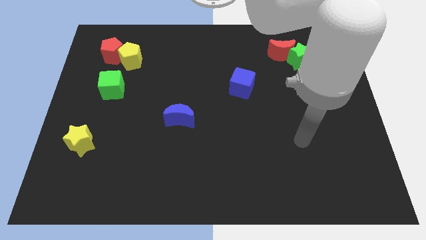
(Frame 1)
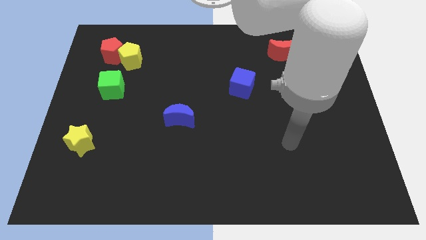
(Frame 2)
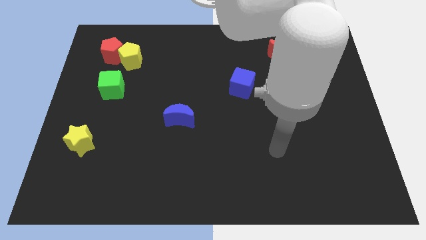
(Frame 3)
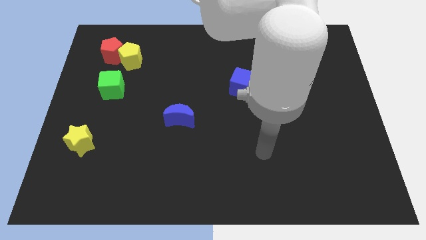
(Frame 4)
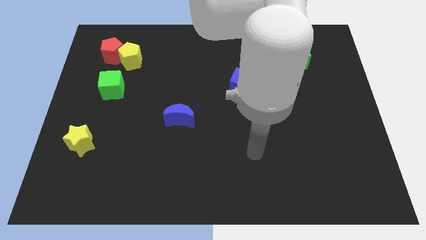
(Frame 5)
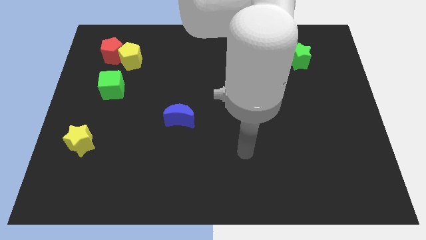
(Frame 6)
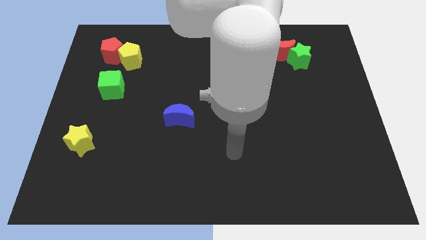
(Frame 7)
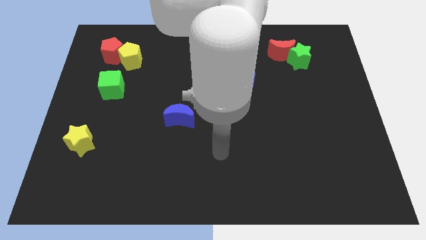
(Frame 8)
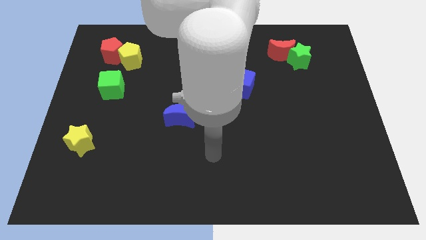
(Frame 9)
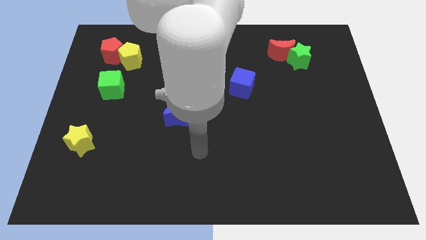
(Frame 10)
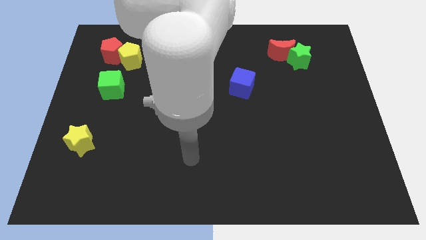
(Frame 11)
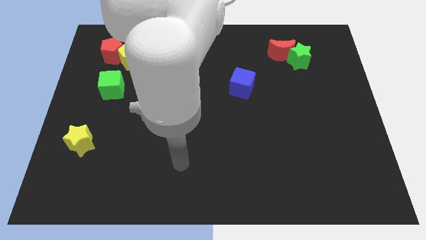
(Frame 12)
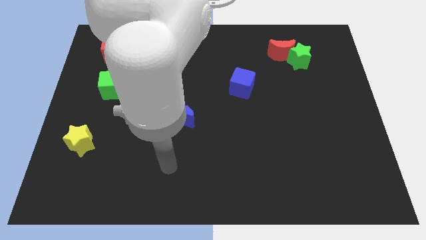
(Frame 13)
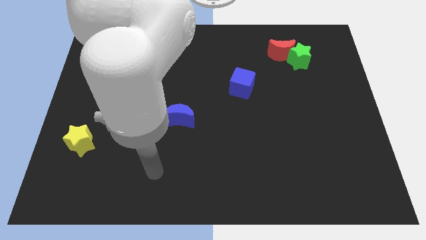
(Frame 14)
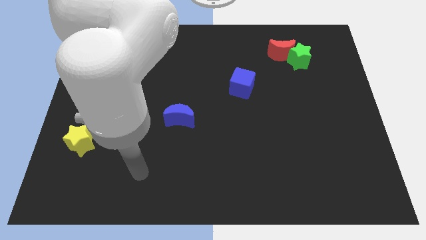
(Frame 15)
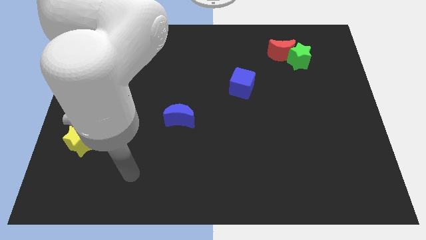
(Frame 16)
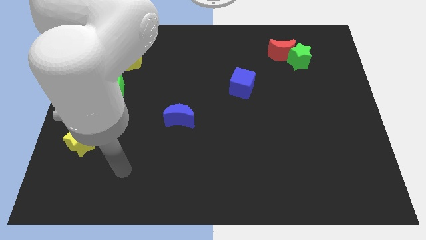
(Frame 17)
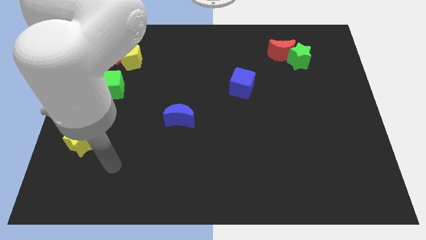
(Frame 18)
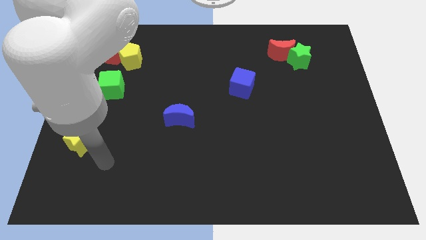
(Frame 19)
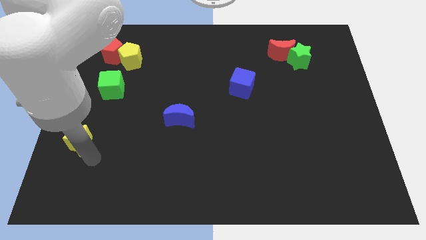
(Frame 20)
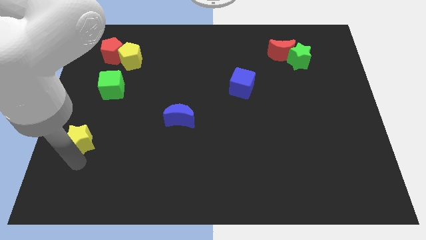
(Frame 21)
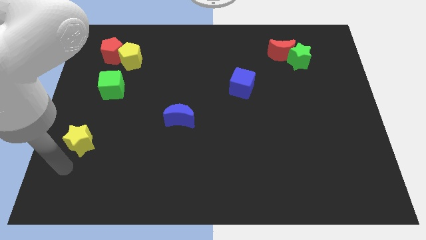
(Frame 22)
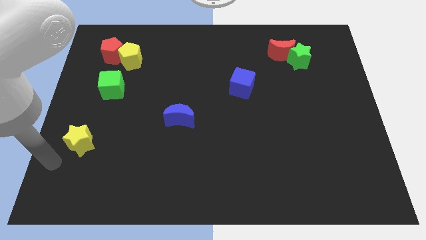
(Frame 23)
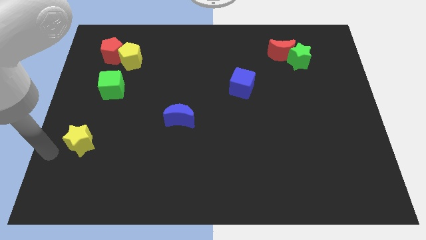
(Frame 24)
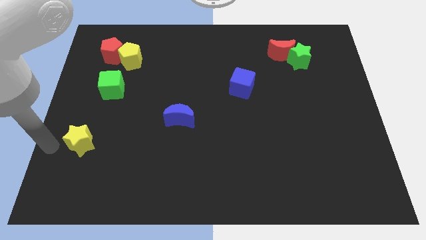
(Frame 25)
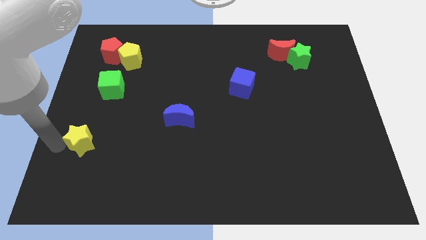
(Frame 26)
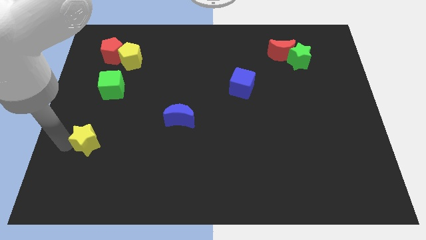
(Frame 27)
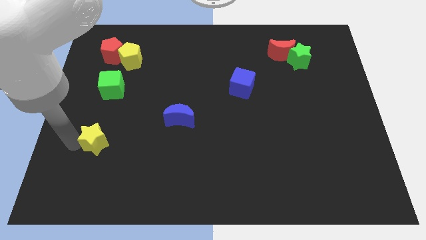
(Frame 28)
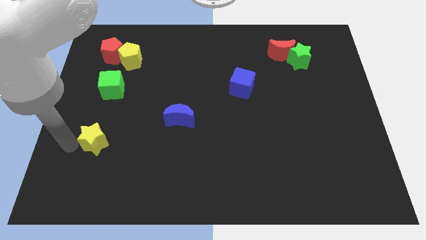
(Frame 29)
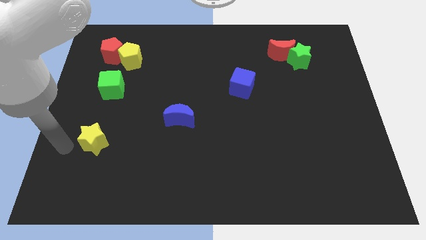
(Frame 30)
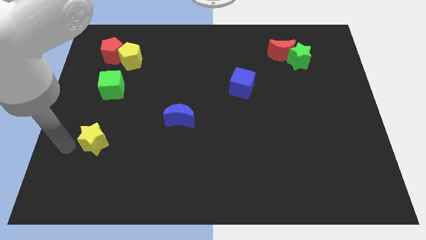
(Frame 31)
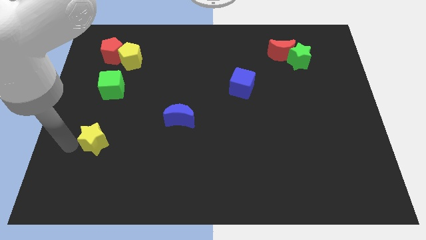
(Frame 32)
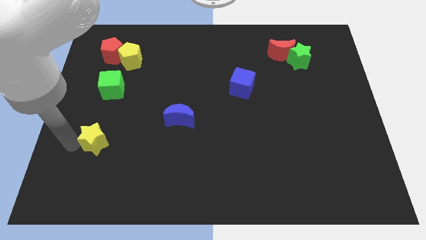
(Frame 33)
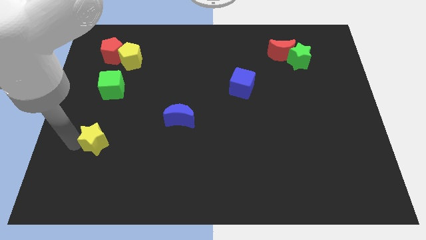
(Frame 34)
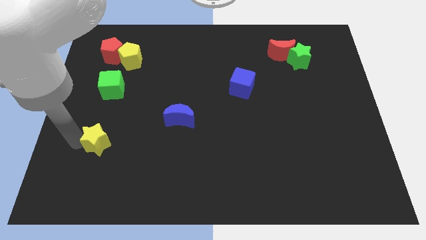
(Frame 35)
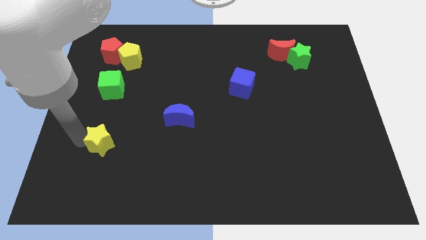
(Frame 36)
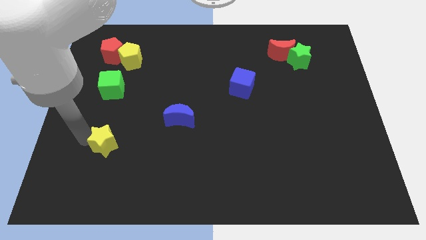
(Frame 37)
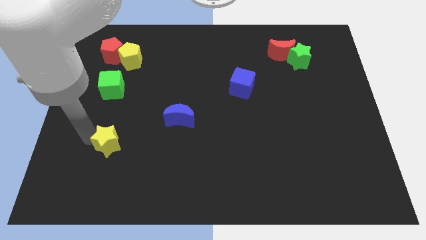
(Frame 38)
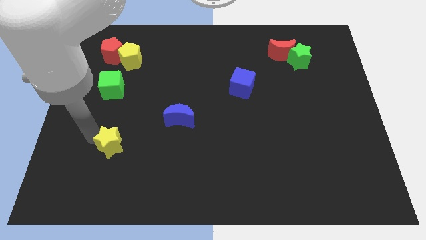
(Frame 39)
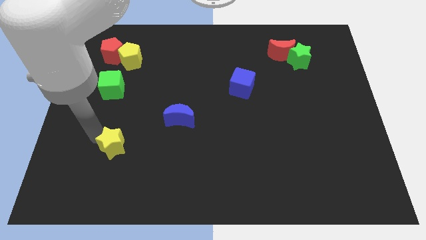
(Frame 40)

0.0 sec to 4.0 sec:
slightly slide the yellow star to the right

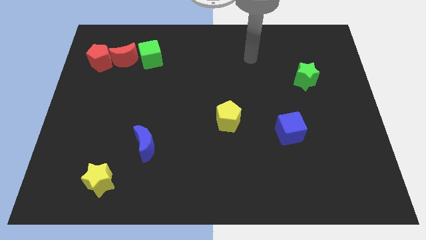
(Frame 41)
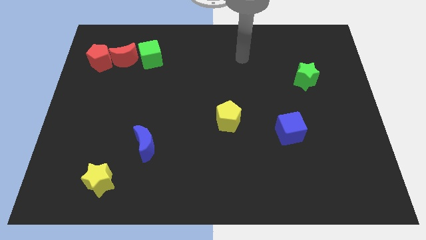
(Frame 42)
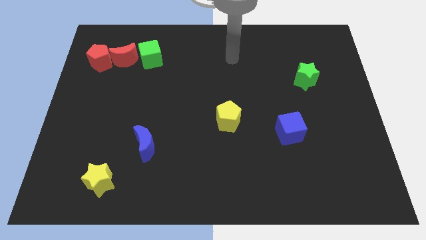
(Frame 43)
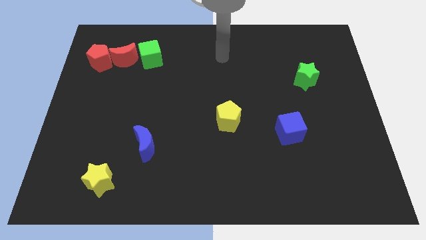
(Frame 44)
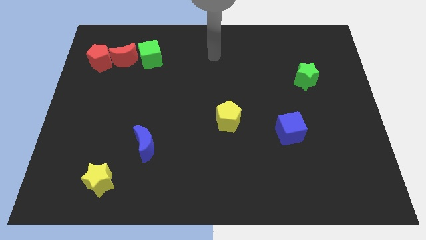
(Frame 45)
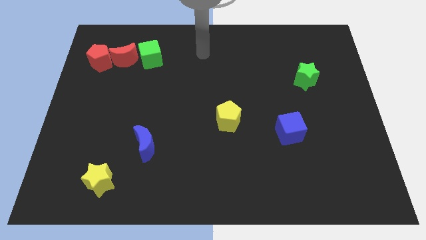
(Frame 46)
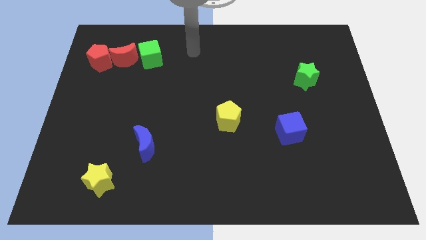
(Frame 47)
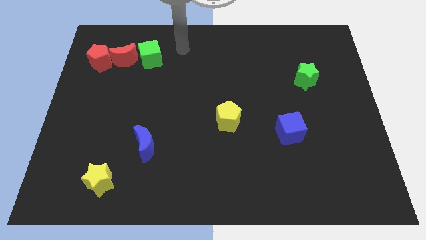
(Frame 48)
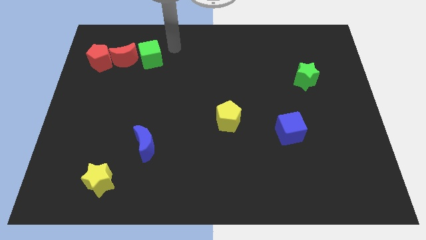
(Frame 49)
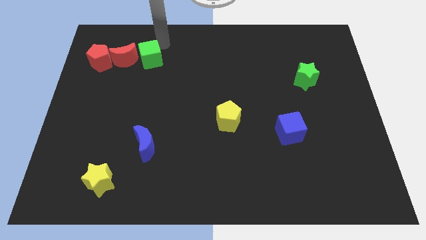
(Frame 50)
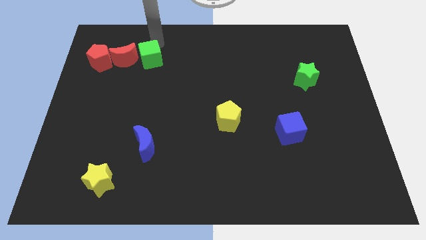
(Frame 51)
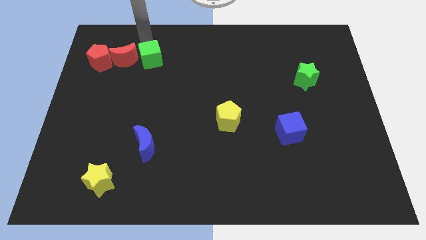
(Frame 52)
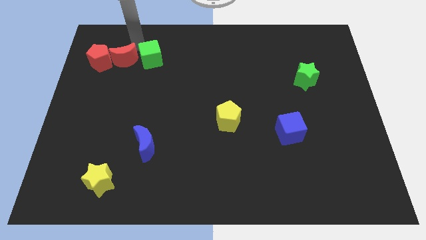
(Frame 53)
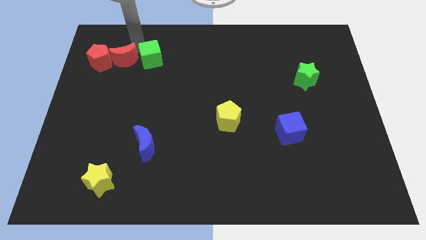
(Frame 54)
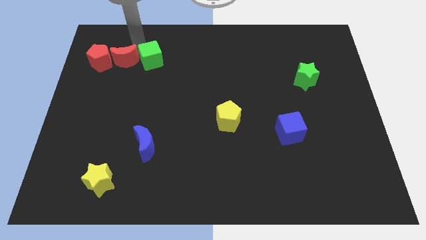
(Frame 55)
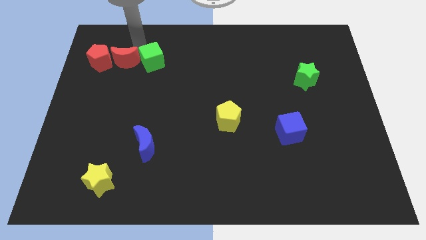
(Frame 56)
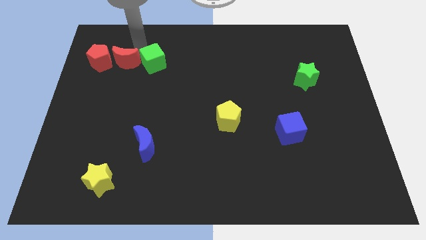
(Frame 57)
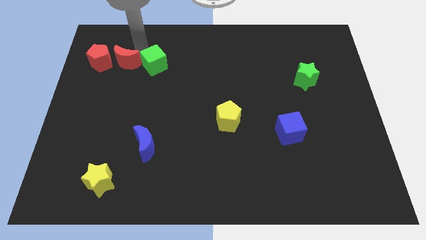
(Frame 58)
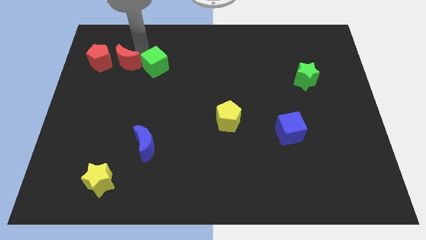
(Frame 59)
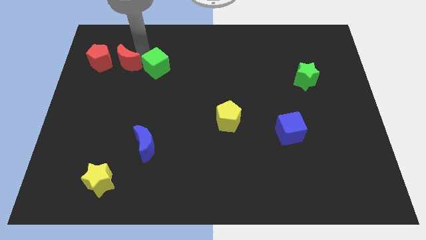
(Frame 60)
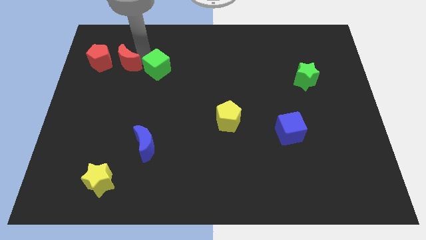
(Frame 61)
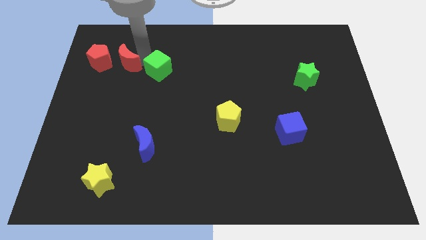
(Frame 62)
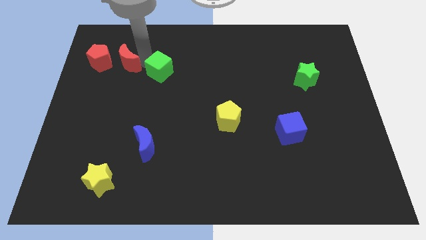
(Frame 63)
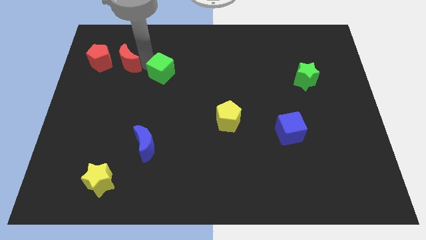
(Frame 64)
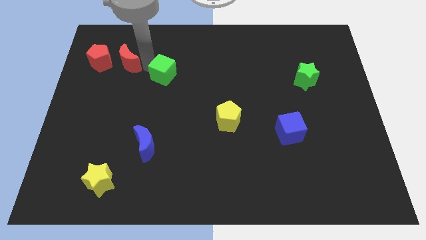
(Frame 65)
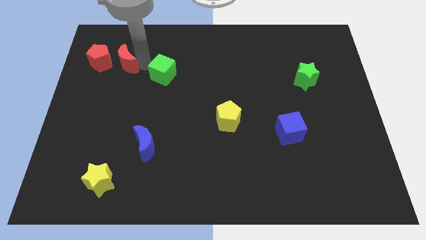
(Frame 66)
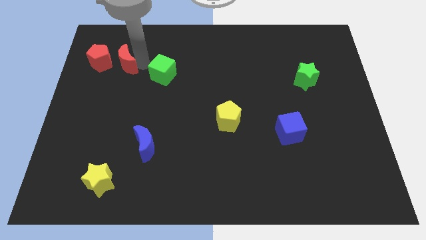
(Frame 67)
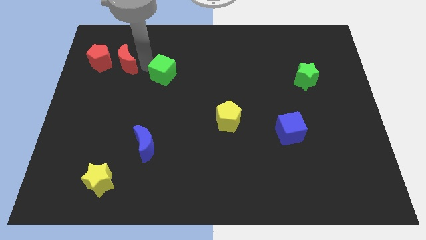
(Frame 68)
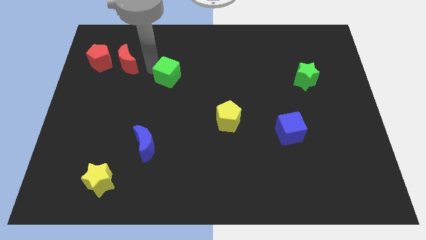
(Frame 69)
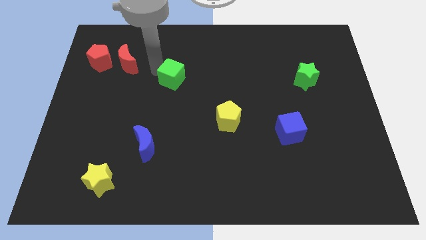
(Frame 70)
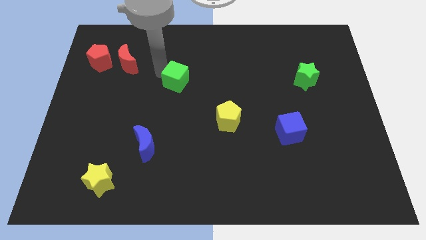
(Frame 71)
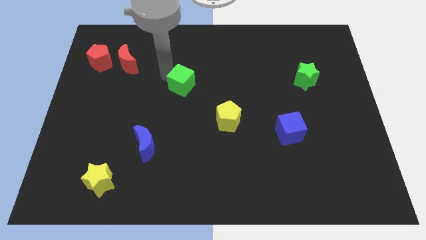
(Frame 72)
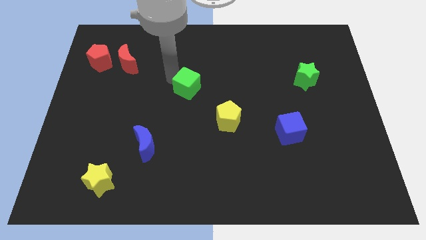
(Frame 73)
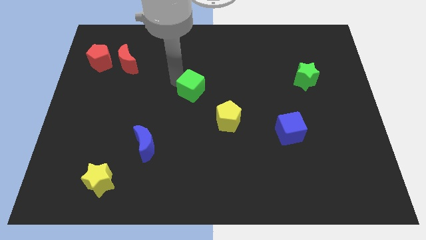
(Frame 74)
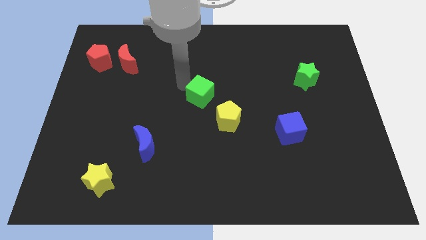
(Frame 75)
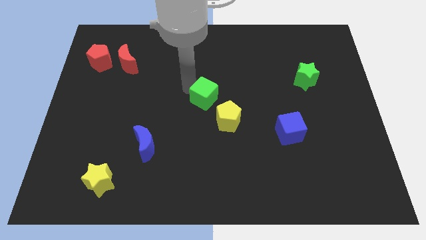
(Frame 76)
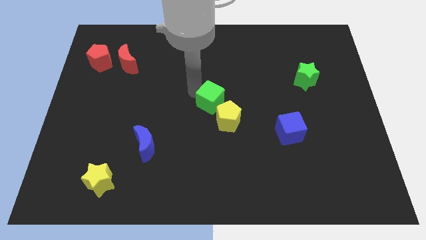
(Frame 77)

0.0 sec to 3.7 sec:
slide the green cube diagonally down and to the right
